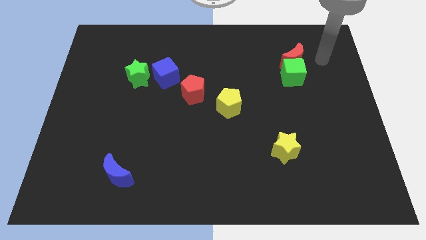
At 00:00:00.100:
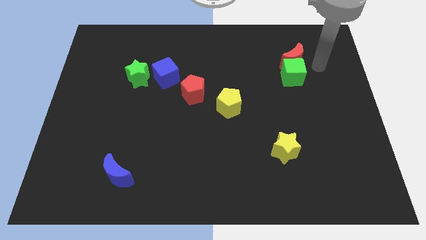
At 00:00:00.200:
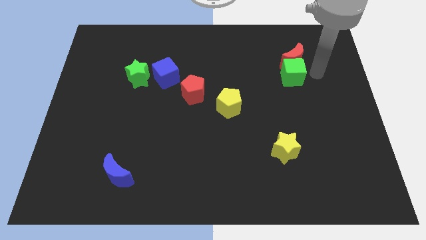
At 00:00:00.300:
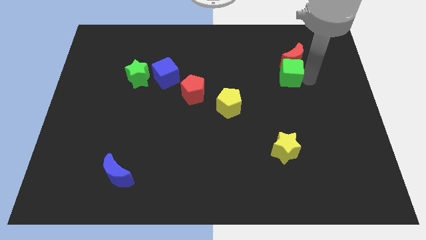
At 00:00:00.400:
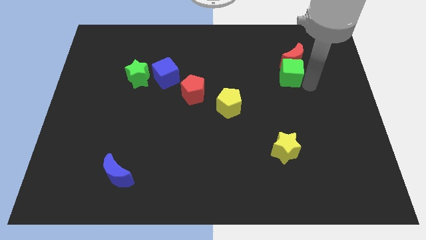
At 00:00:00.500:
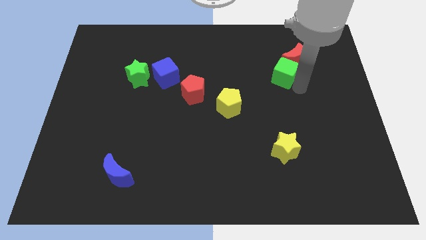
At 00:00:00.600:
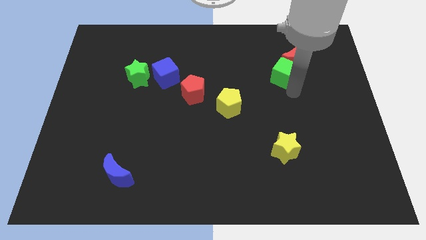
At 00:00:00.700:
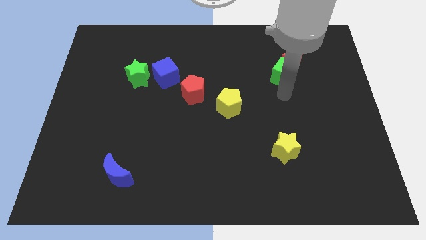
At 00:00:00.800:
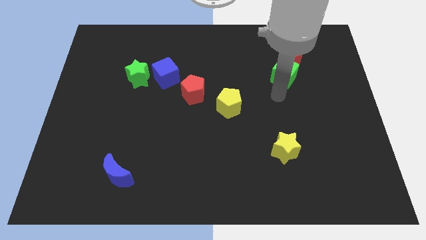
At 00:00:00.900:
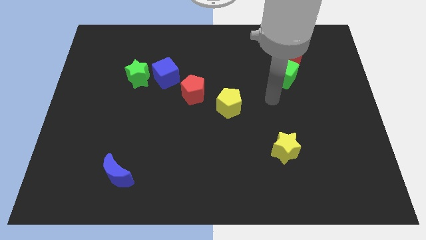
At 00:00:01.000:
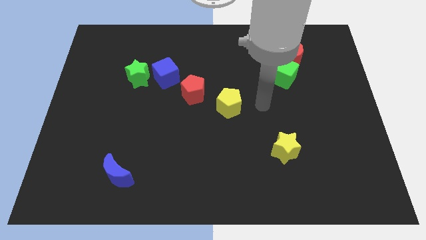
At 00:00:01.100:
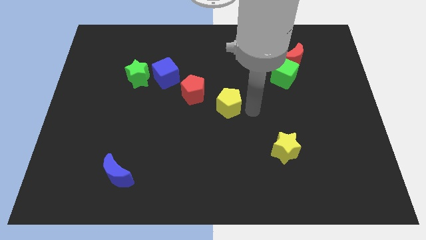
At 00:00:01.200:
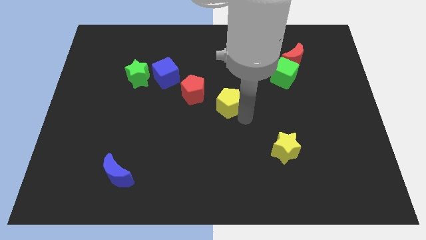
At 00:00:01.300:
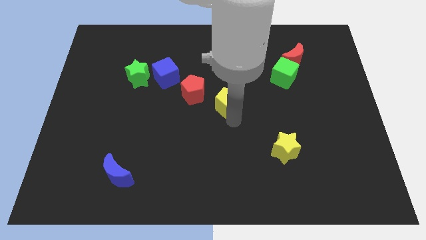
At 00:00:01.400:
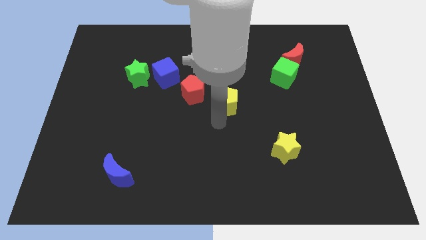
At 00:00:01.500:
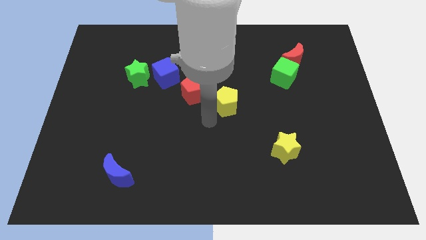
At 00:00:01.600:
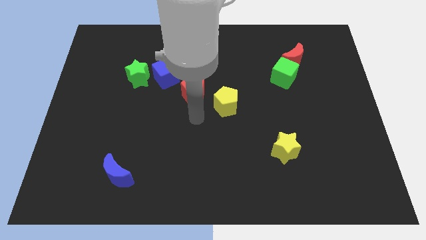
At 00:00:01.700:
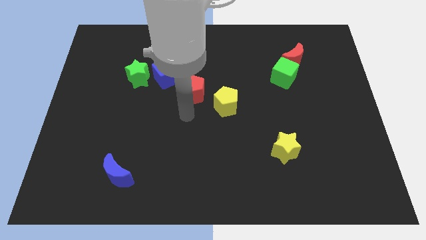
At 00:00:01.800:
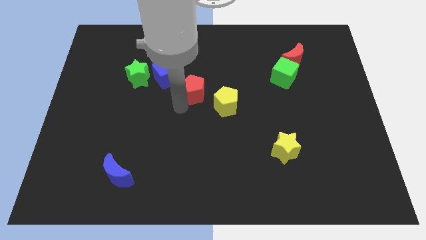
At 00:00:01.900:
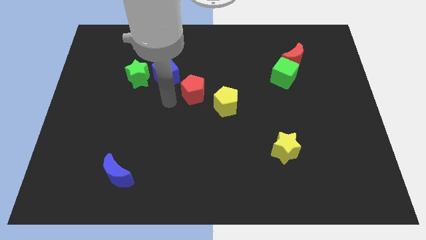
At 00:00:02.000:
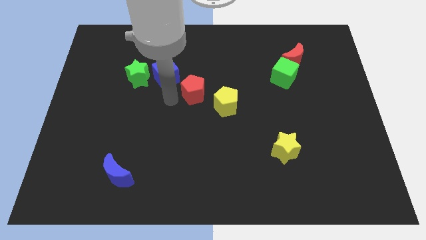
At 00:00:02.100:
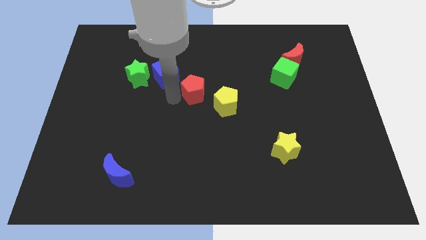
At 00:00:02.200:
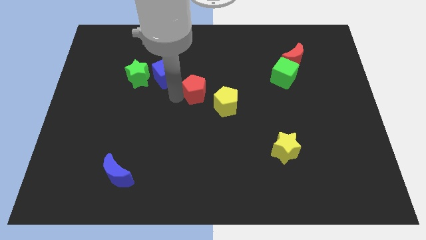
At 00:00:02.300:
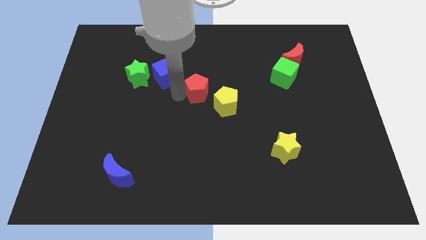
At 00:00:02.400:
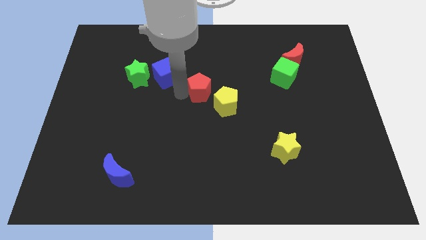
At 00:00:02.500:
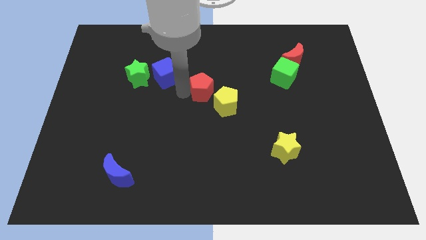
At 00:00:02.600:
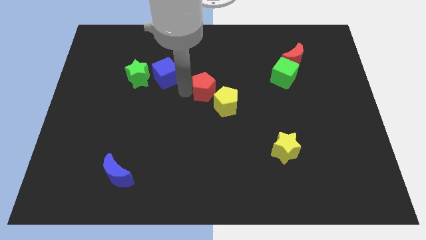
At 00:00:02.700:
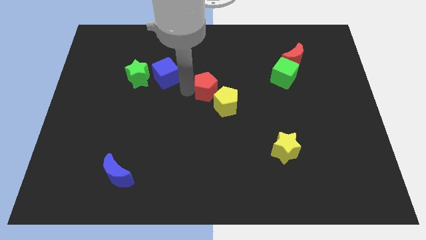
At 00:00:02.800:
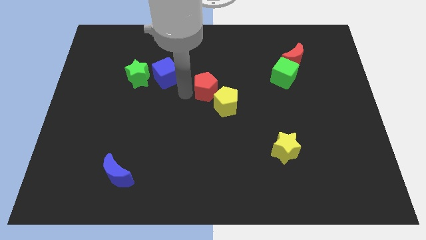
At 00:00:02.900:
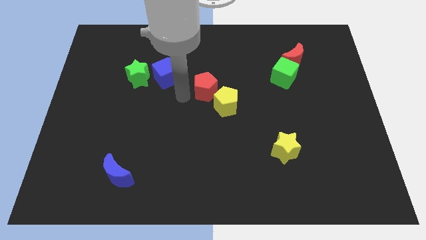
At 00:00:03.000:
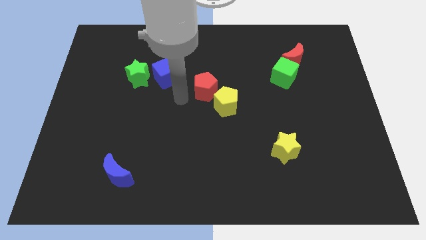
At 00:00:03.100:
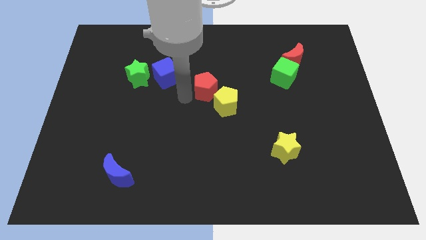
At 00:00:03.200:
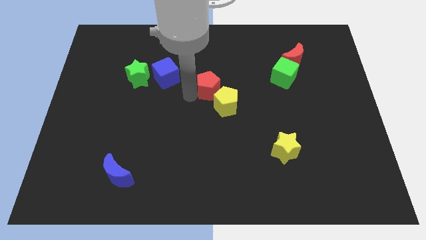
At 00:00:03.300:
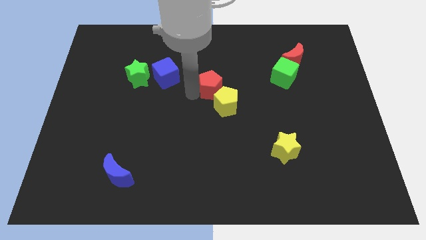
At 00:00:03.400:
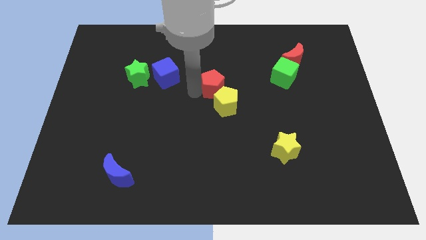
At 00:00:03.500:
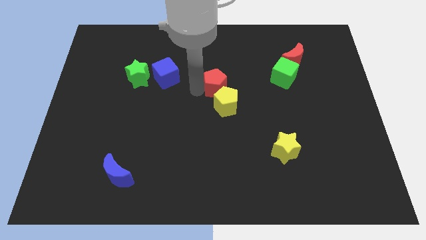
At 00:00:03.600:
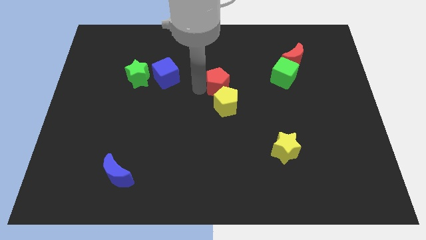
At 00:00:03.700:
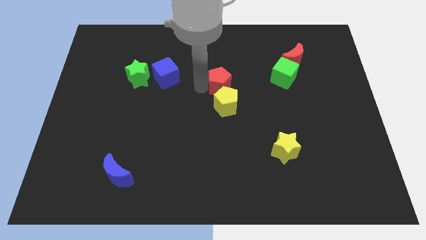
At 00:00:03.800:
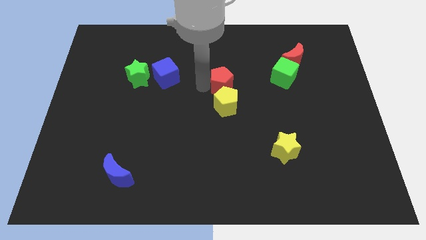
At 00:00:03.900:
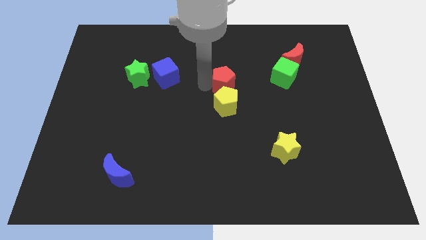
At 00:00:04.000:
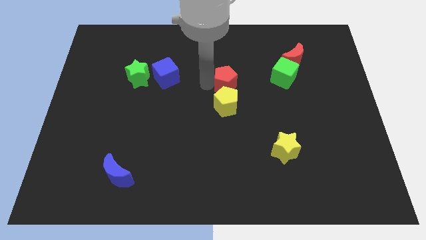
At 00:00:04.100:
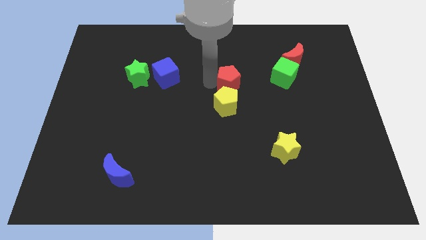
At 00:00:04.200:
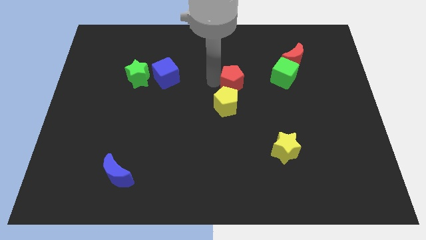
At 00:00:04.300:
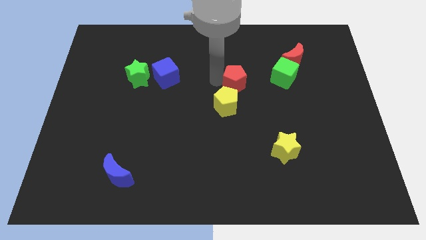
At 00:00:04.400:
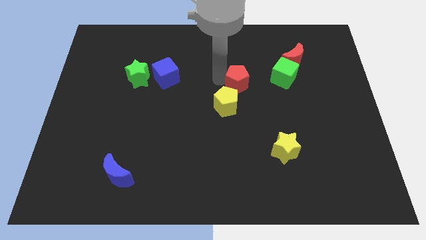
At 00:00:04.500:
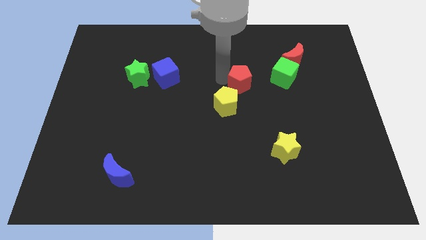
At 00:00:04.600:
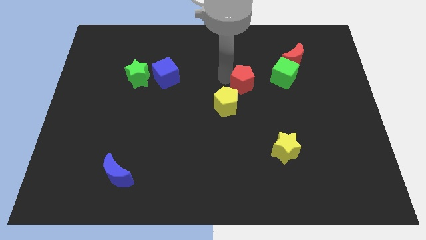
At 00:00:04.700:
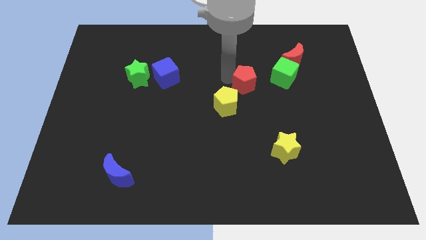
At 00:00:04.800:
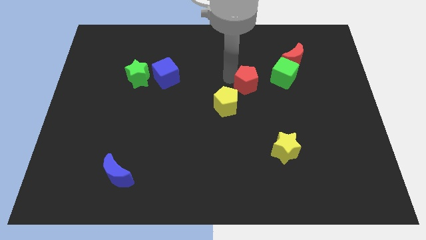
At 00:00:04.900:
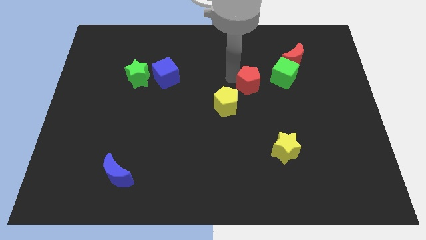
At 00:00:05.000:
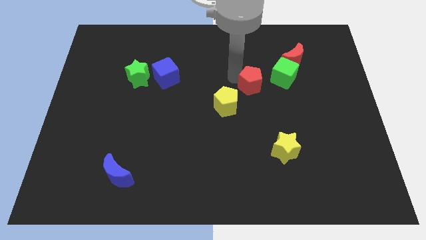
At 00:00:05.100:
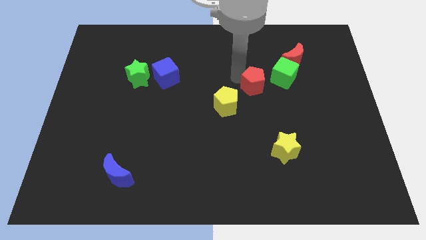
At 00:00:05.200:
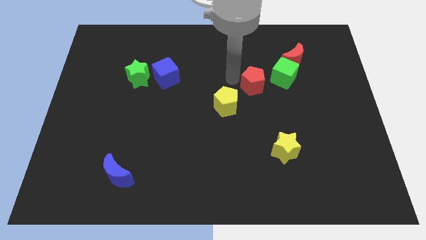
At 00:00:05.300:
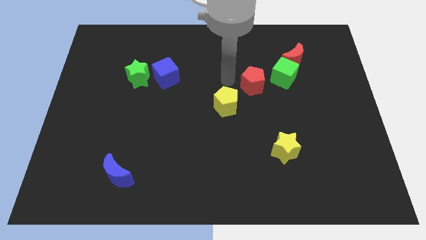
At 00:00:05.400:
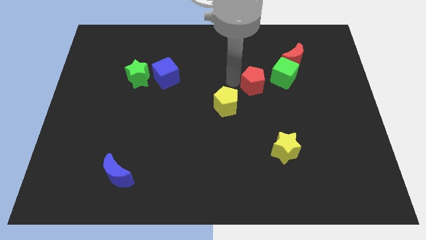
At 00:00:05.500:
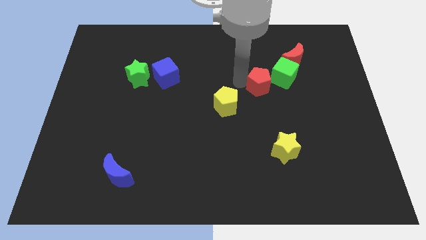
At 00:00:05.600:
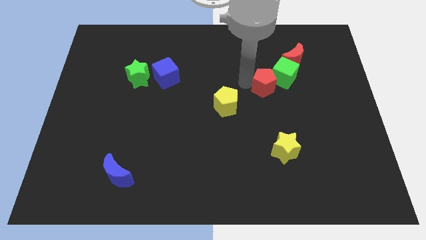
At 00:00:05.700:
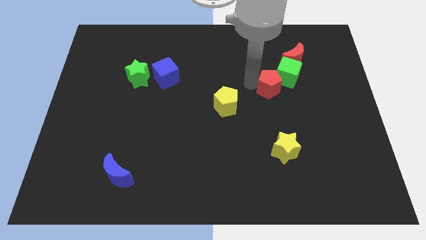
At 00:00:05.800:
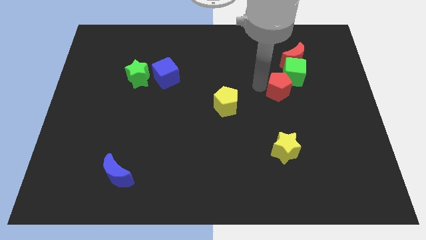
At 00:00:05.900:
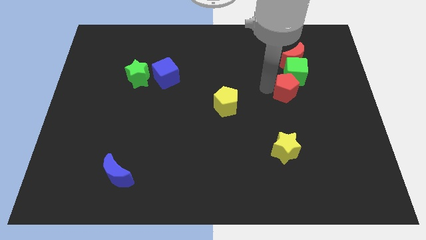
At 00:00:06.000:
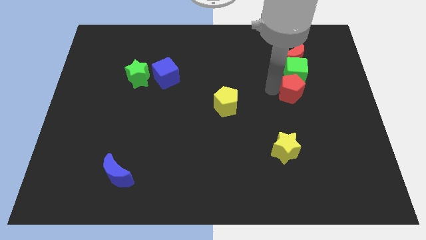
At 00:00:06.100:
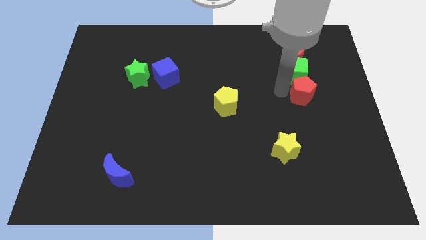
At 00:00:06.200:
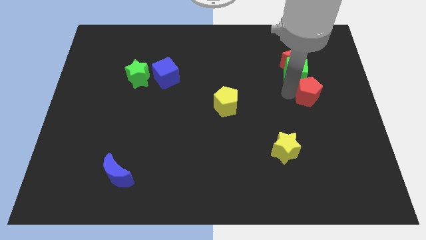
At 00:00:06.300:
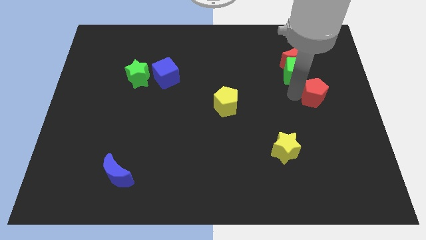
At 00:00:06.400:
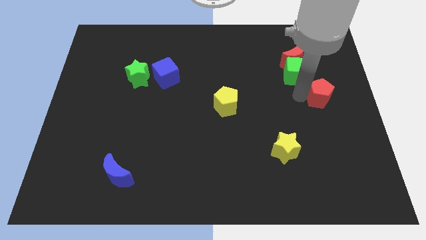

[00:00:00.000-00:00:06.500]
slide the red pentagon to the right side

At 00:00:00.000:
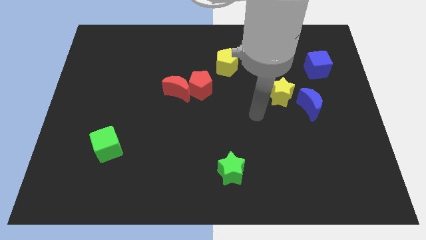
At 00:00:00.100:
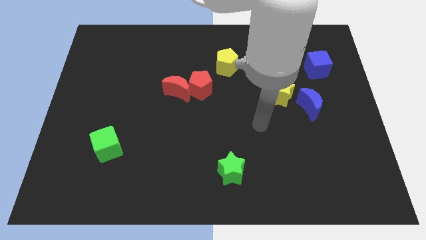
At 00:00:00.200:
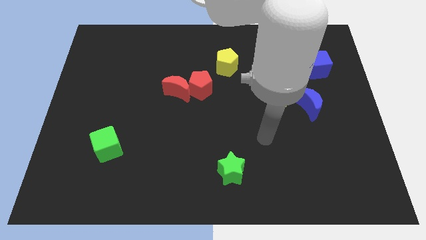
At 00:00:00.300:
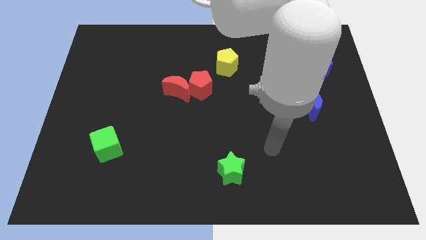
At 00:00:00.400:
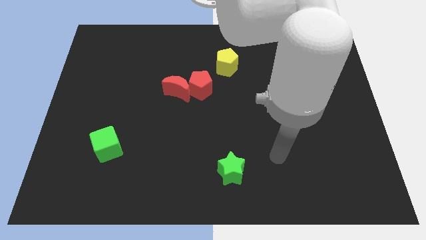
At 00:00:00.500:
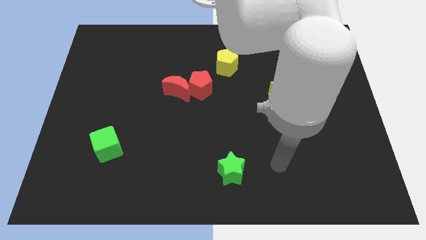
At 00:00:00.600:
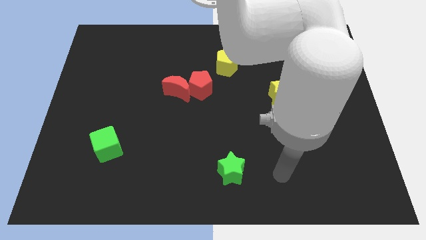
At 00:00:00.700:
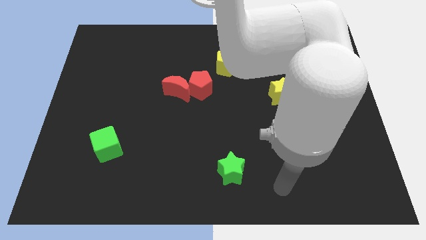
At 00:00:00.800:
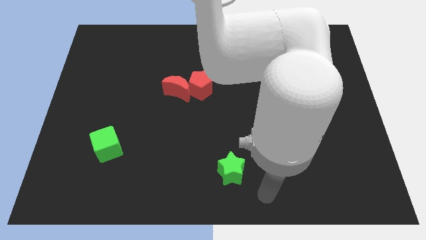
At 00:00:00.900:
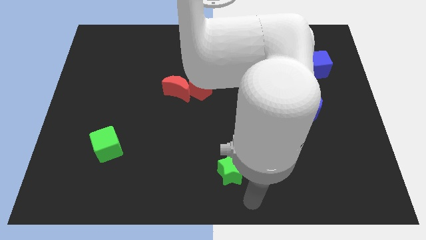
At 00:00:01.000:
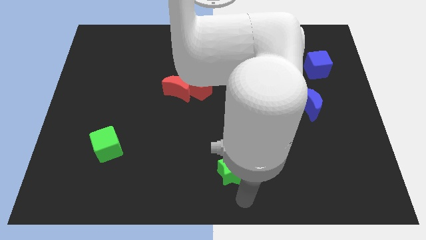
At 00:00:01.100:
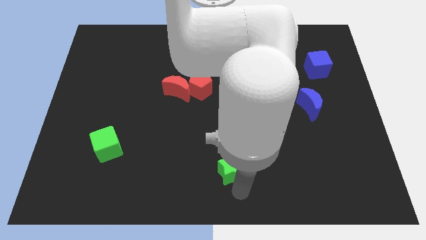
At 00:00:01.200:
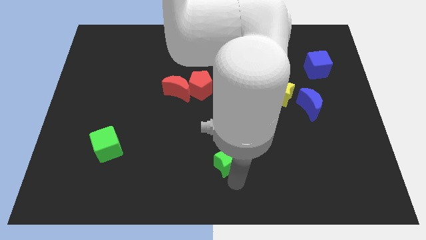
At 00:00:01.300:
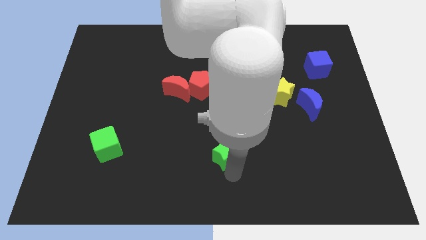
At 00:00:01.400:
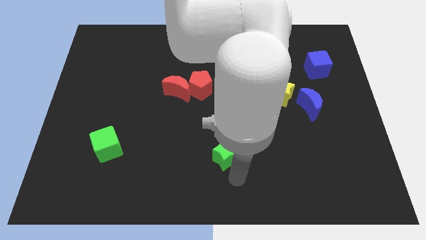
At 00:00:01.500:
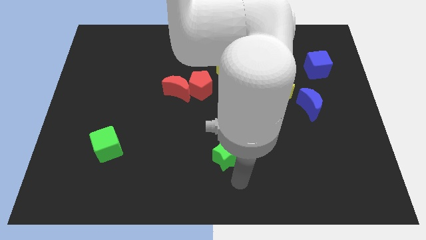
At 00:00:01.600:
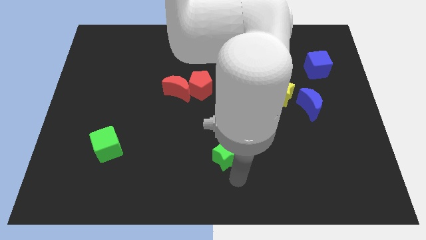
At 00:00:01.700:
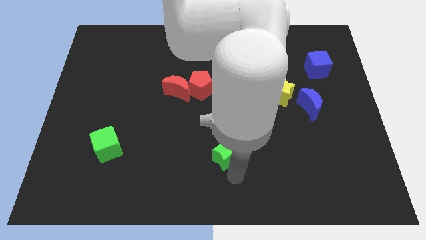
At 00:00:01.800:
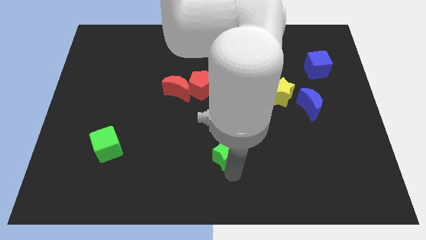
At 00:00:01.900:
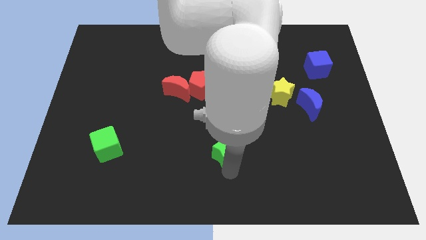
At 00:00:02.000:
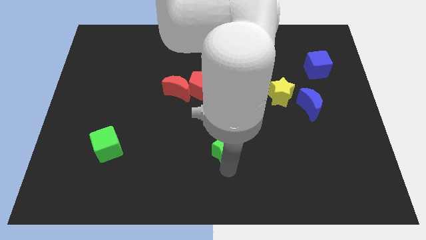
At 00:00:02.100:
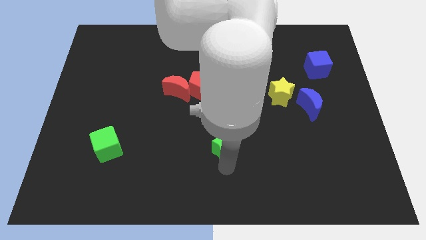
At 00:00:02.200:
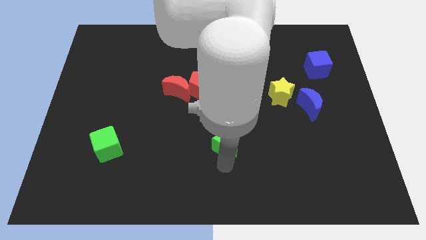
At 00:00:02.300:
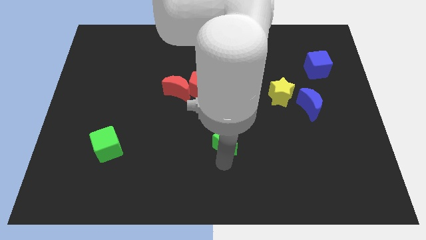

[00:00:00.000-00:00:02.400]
put the green star to the middle of the board
